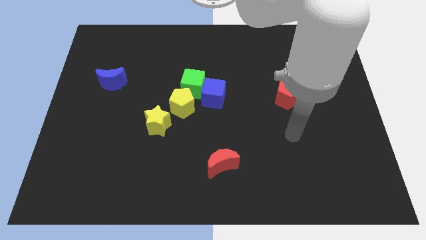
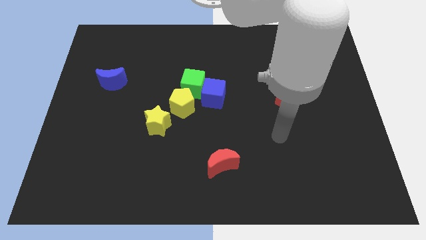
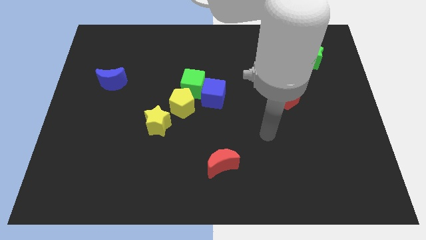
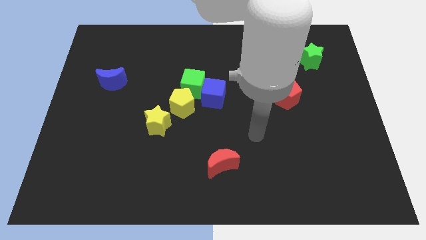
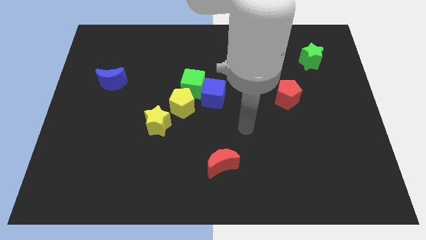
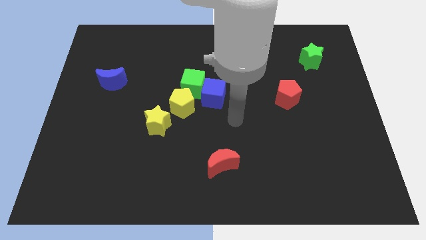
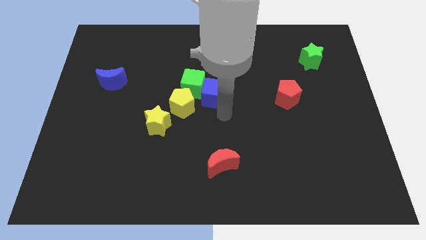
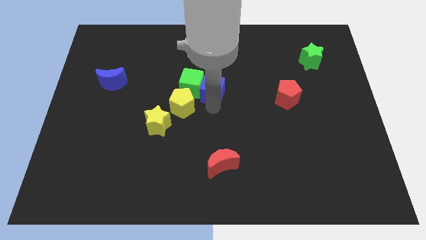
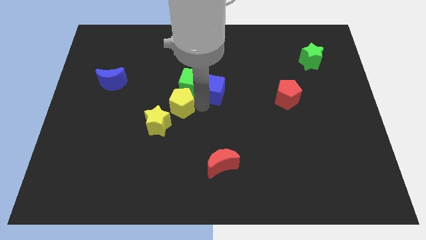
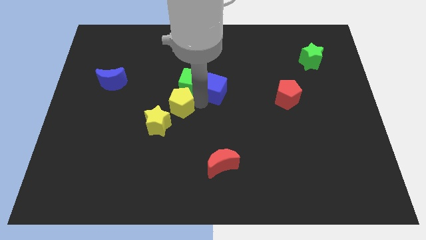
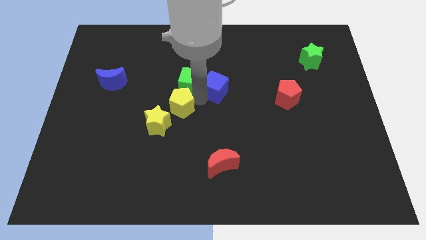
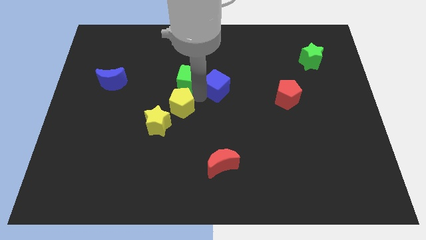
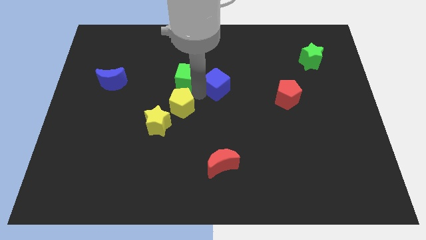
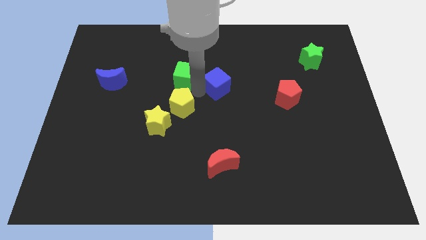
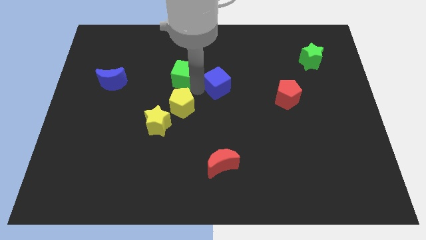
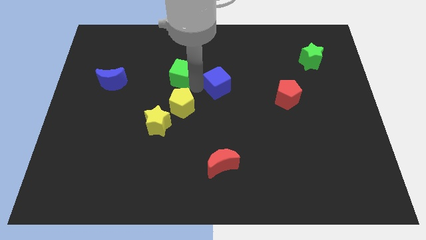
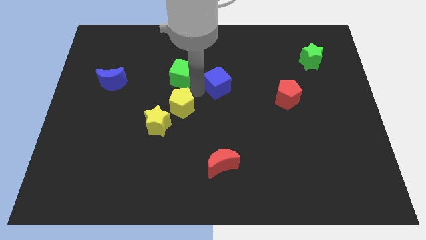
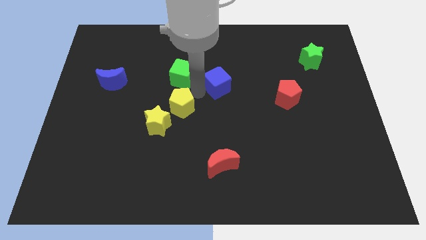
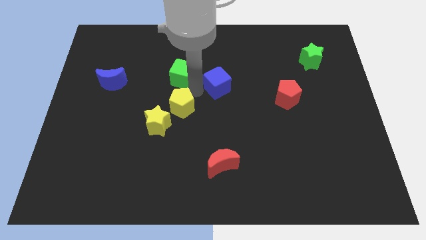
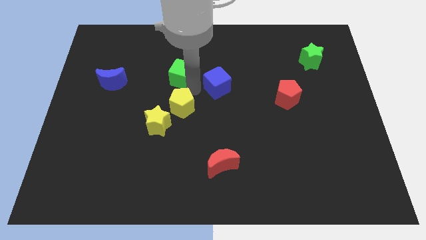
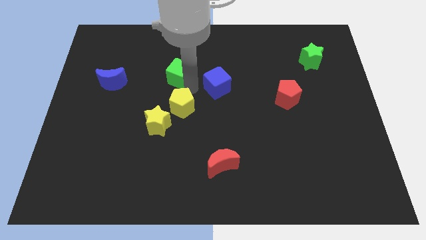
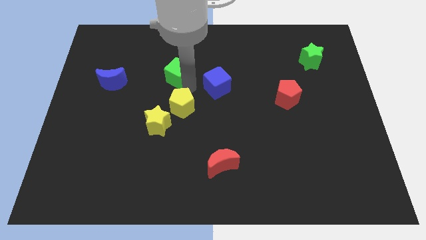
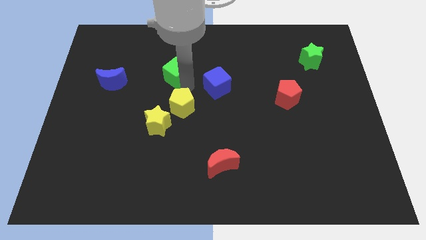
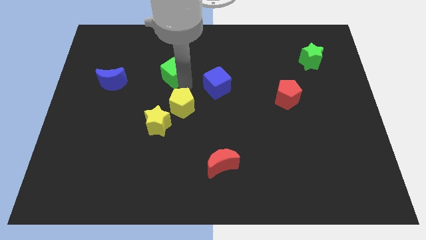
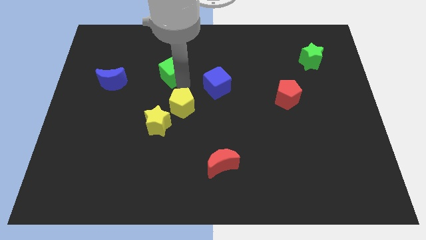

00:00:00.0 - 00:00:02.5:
separate the green cube from the blue cube and yellow pentagon

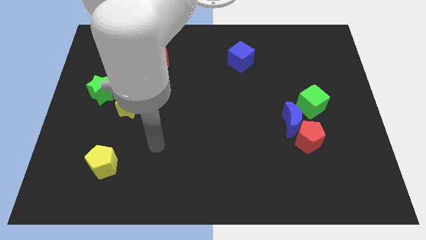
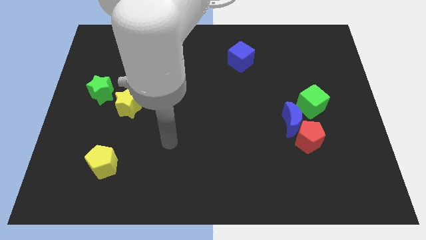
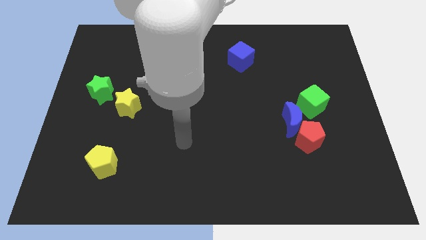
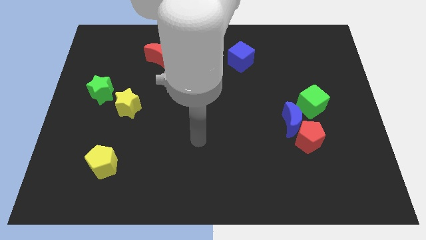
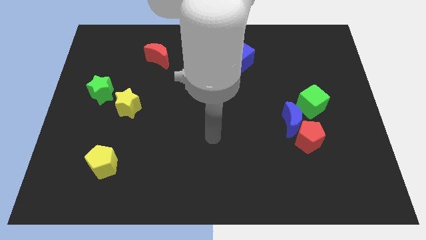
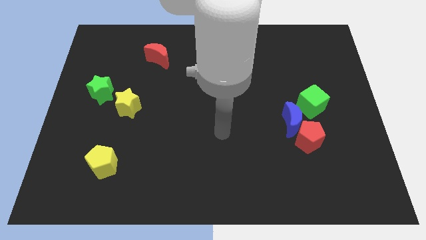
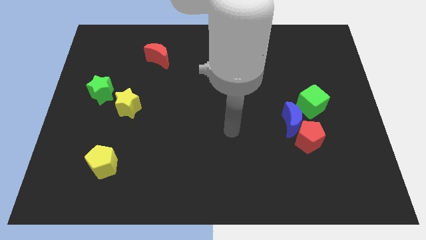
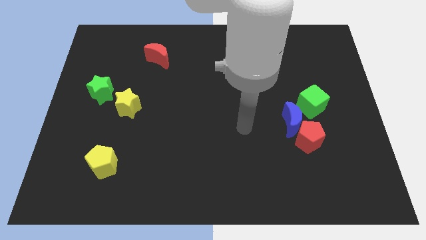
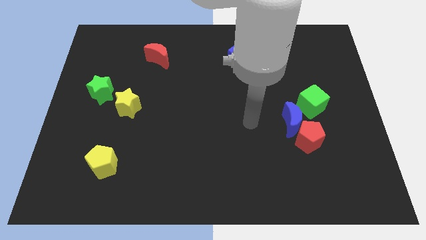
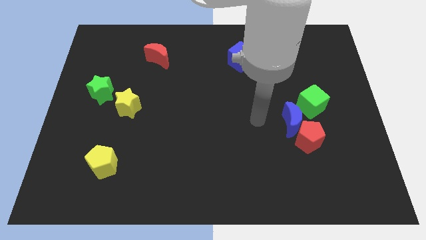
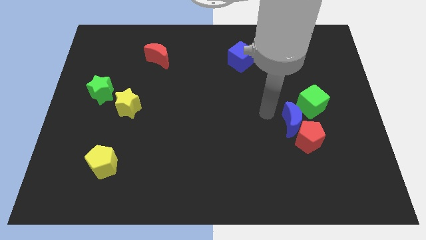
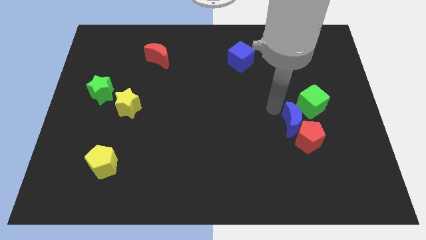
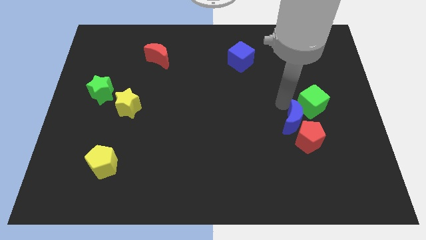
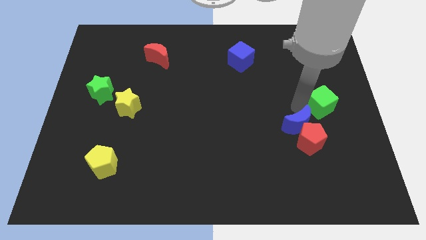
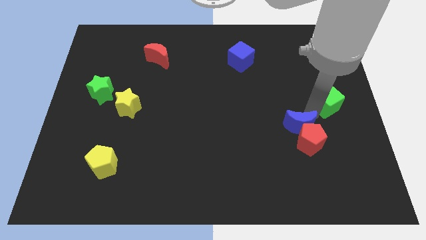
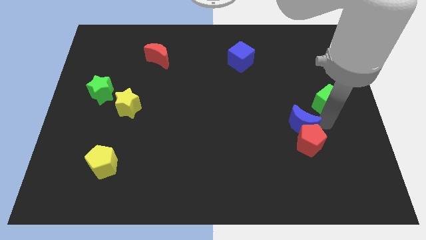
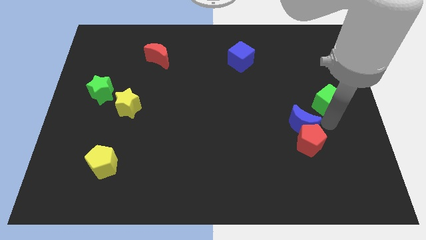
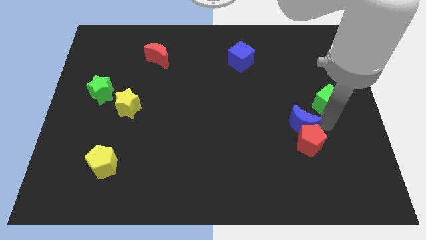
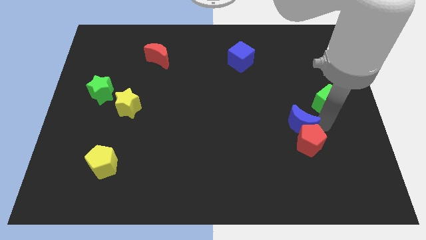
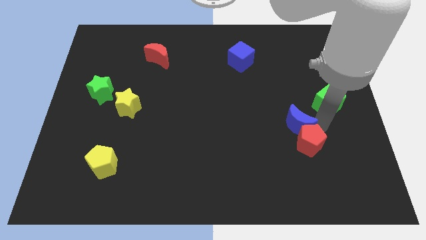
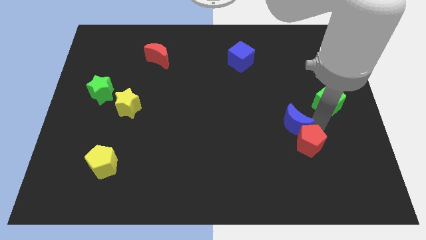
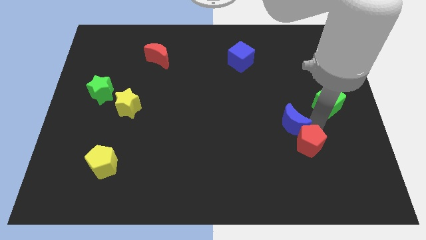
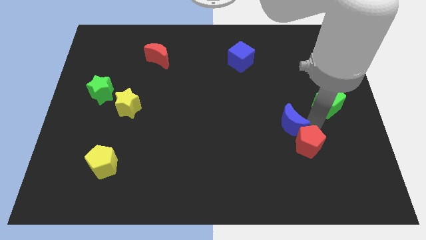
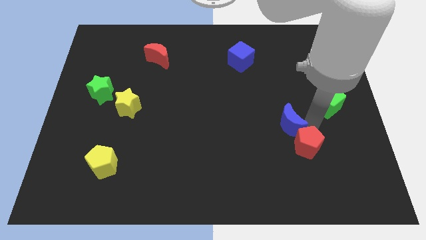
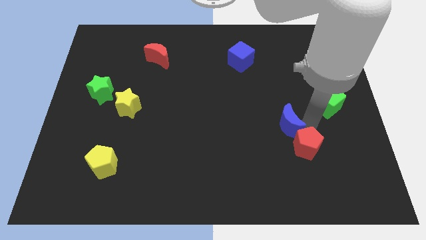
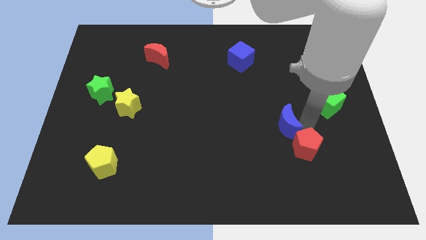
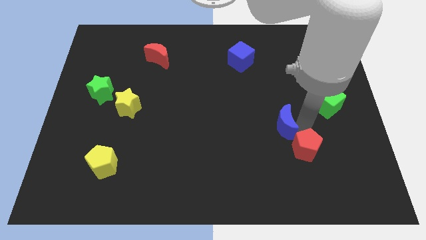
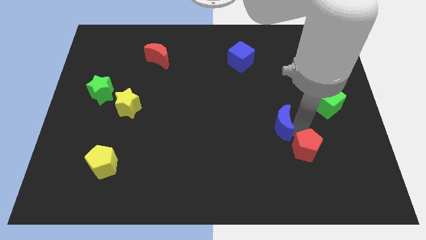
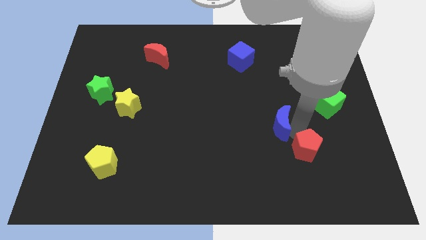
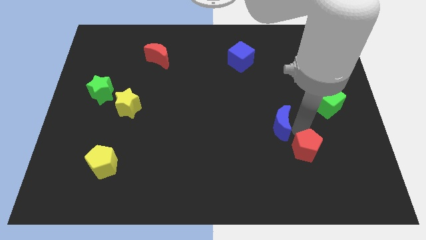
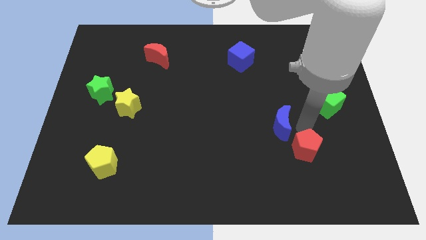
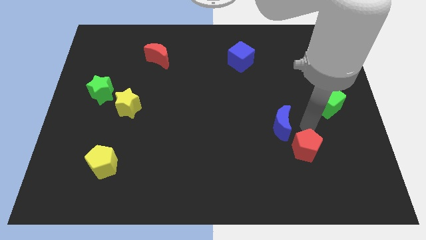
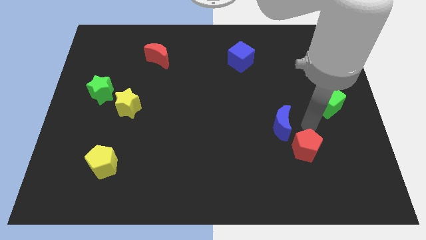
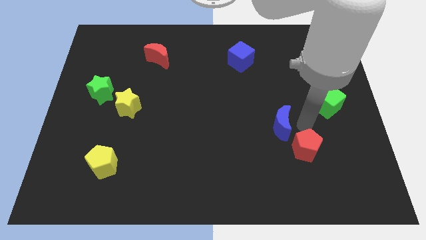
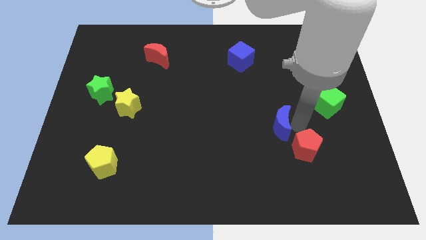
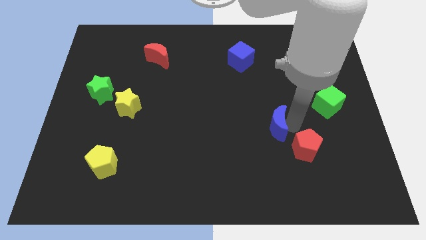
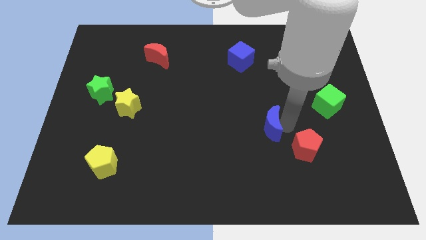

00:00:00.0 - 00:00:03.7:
move the blue moon away from the red pentagon and green cube

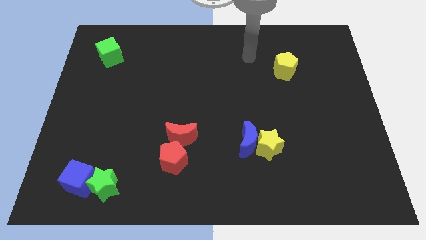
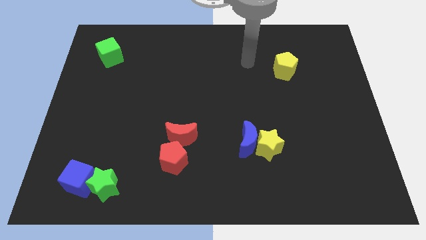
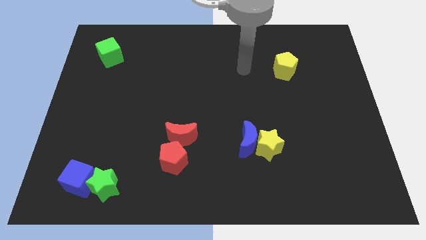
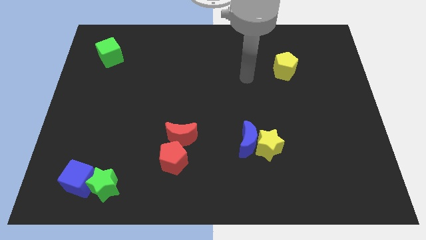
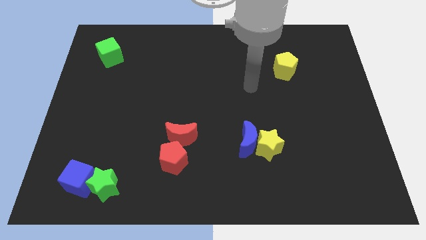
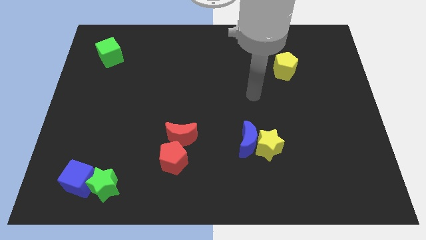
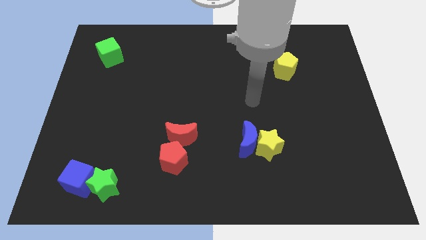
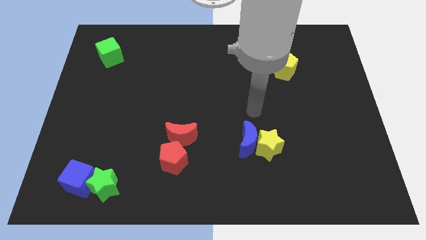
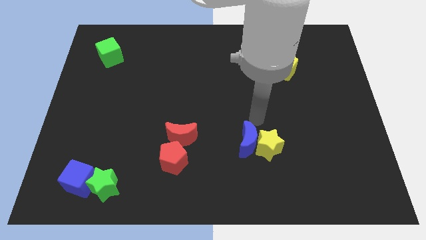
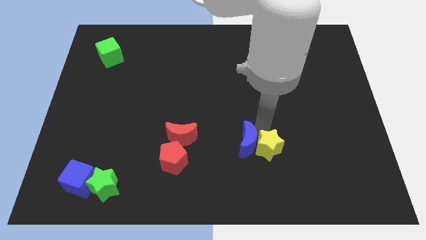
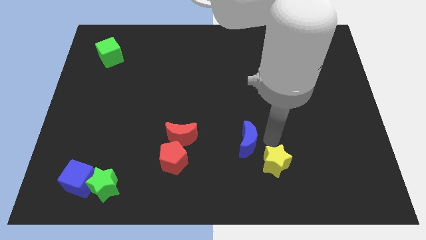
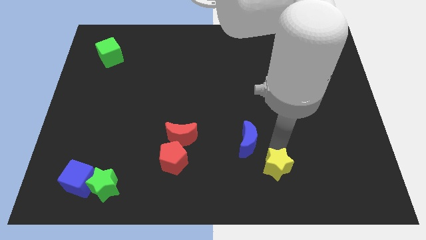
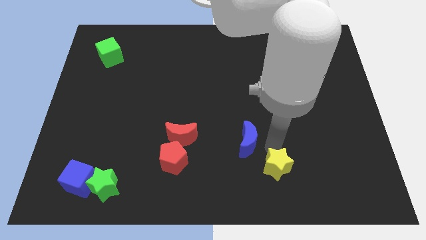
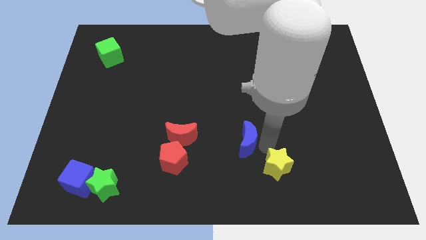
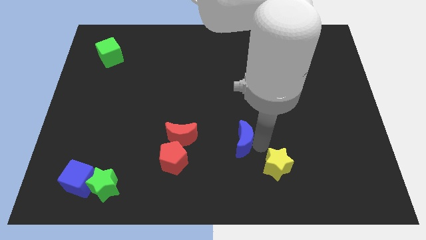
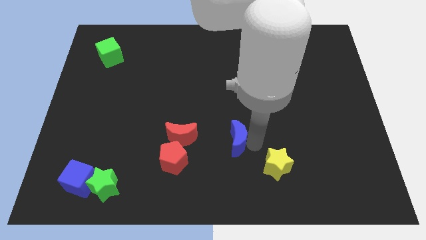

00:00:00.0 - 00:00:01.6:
move the blue moon away from the yellow star

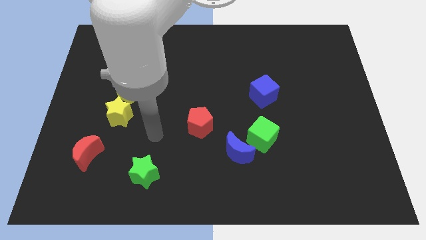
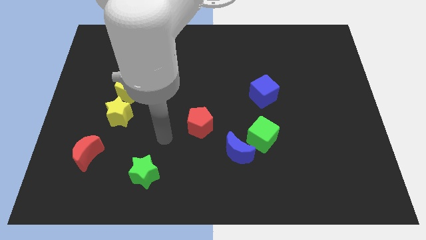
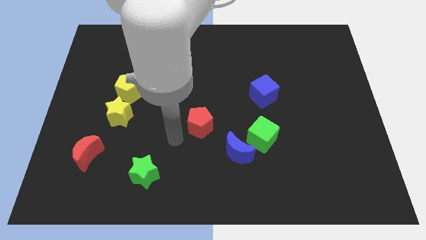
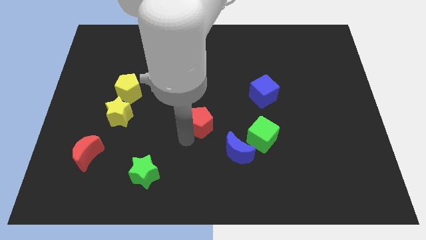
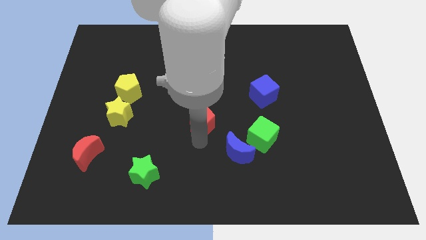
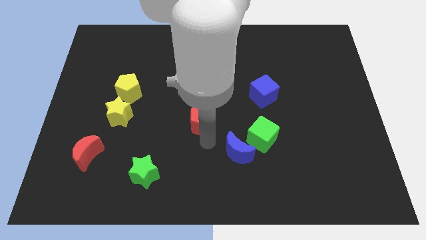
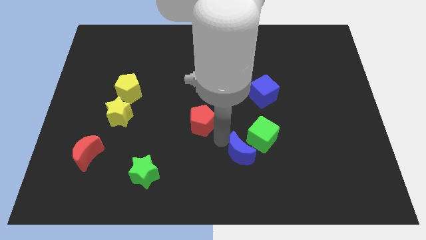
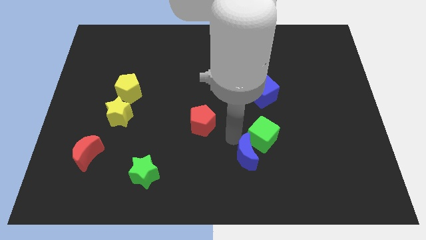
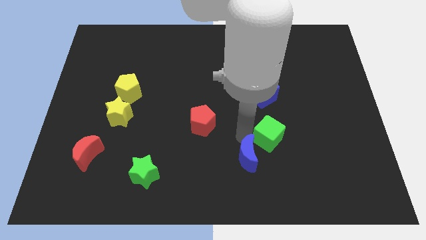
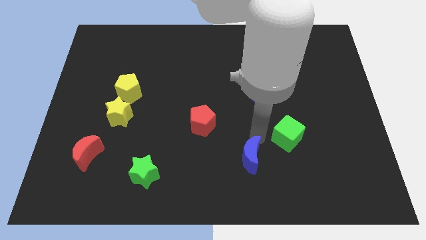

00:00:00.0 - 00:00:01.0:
separate the blue moon from the green cube

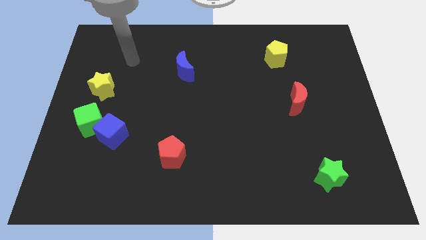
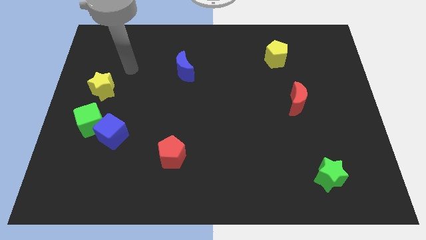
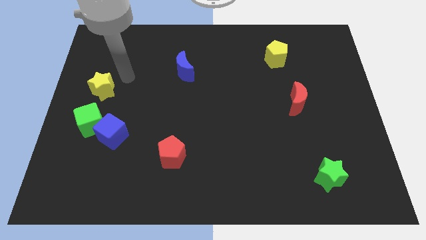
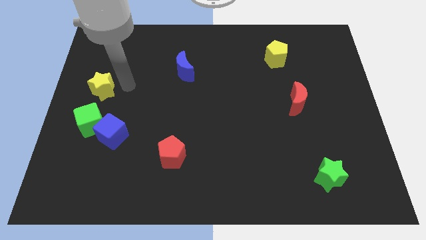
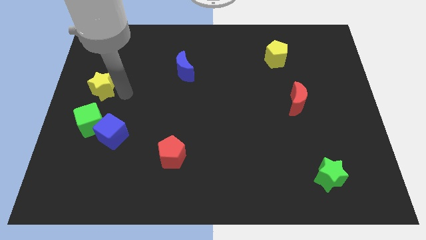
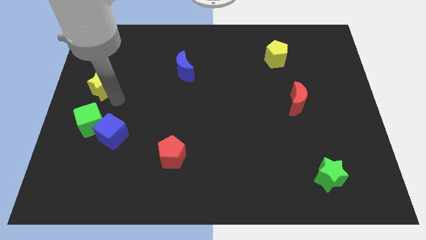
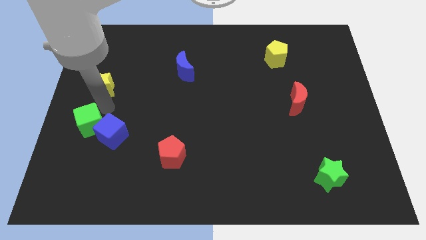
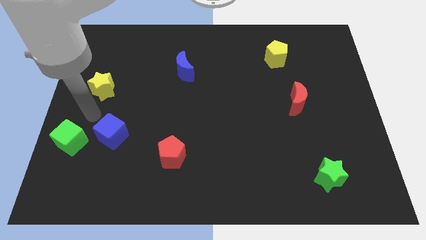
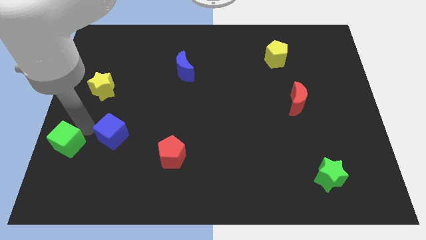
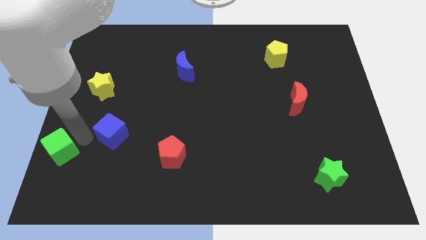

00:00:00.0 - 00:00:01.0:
move the blue cube away from the green cube
